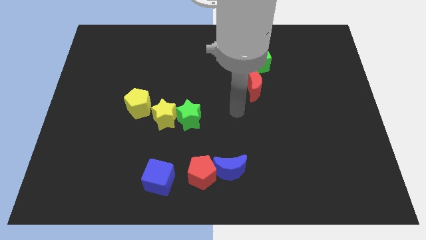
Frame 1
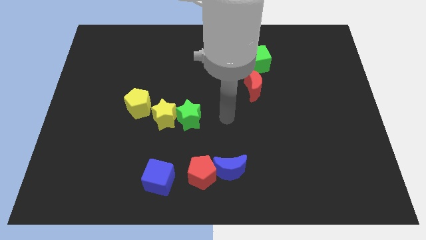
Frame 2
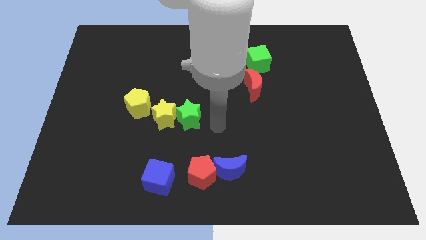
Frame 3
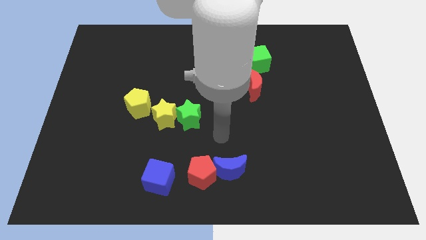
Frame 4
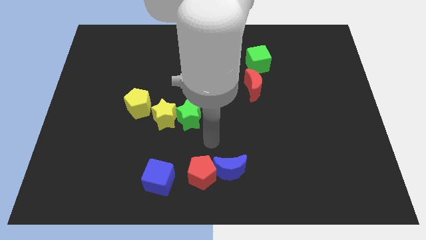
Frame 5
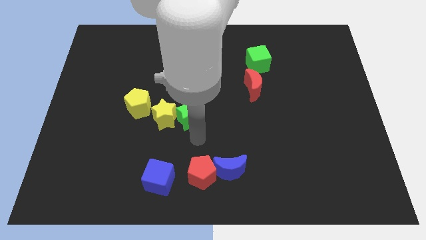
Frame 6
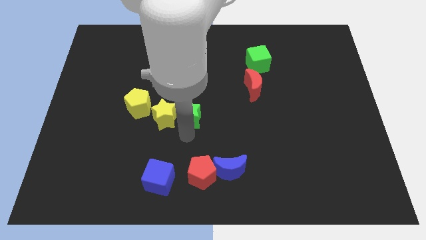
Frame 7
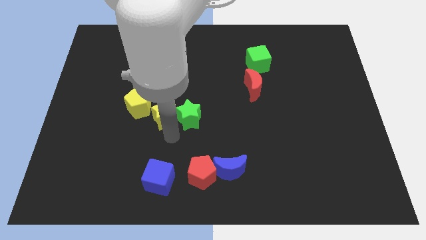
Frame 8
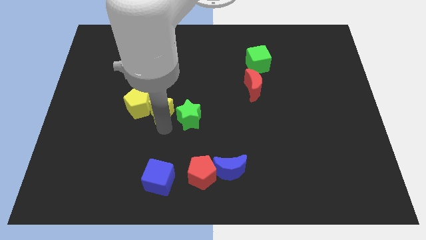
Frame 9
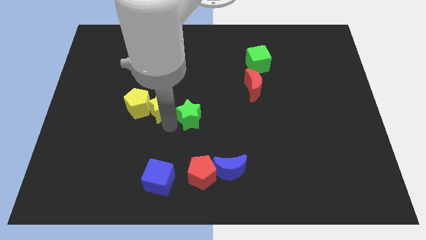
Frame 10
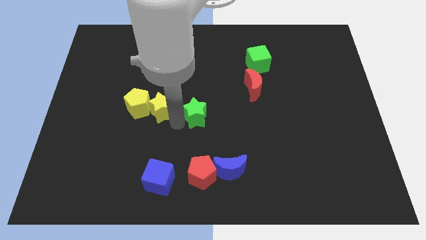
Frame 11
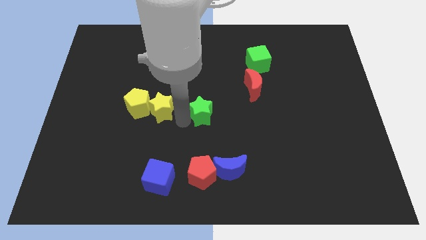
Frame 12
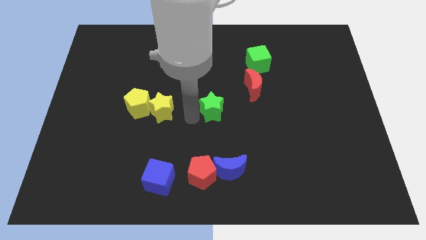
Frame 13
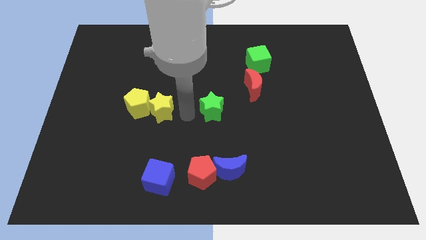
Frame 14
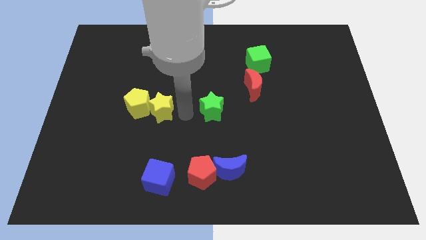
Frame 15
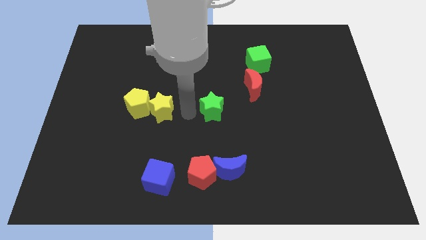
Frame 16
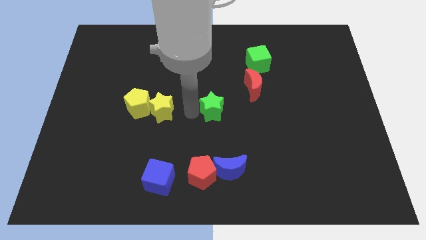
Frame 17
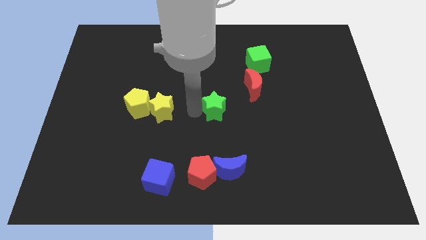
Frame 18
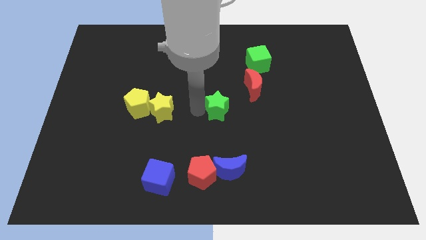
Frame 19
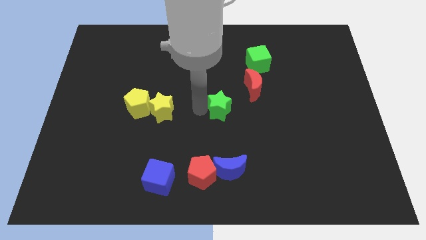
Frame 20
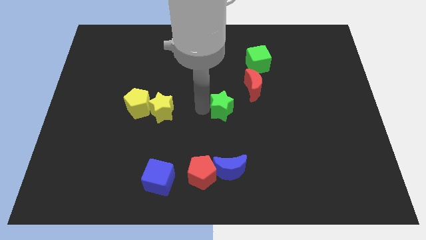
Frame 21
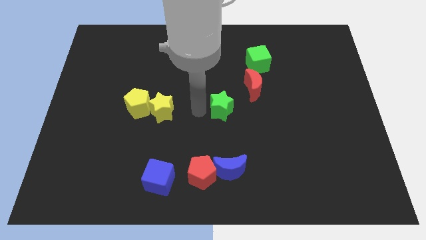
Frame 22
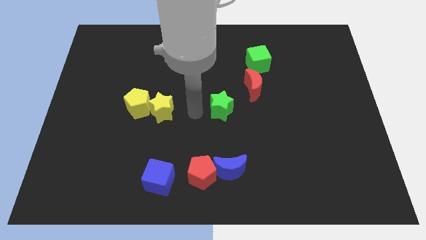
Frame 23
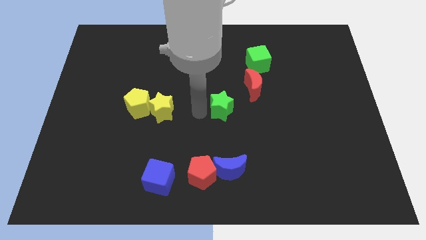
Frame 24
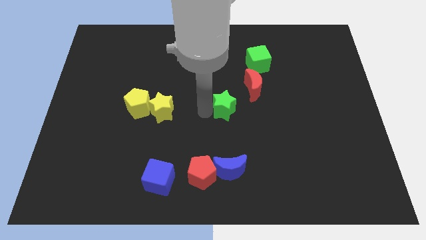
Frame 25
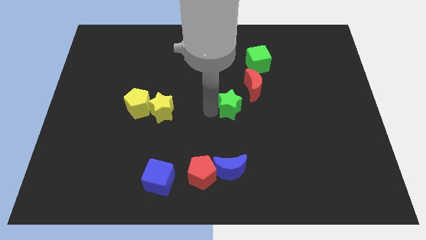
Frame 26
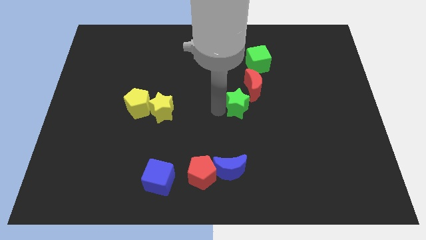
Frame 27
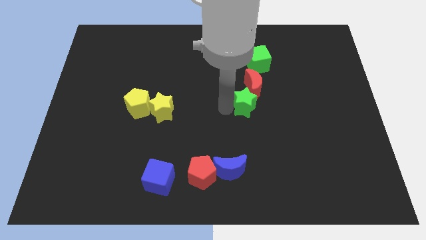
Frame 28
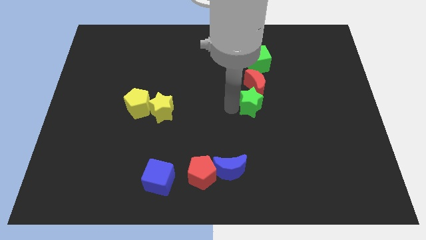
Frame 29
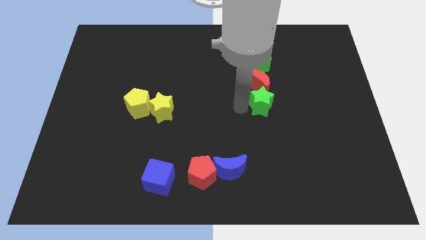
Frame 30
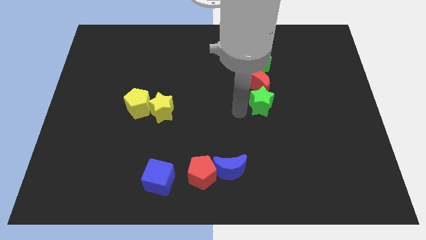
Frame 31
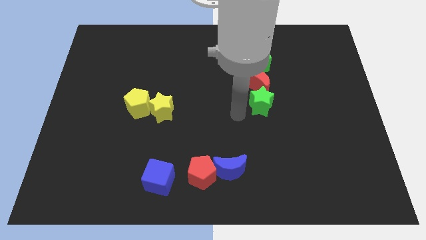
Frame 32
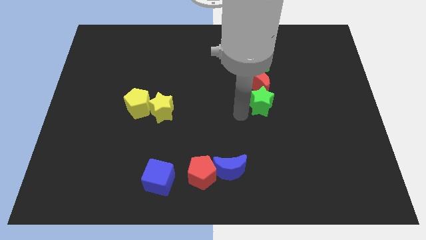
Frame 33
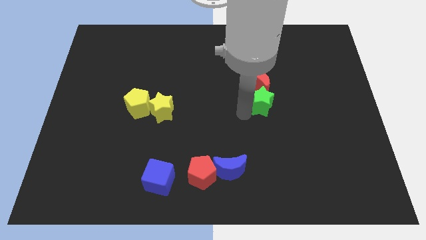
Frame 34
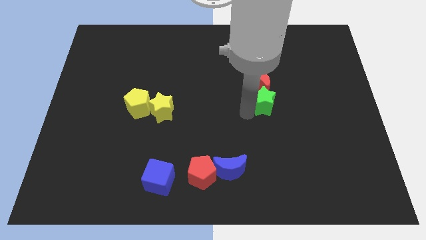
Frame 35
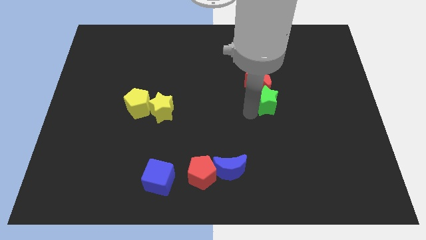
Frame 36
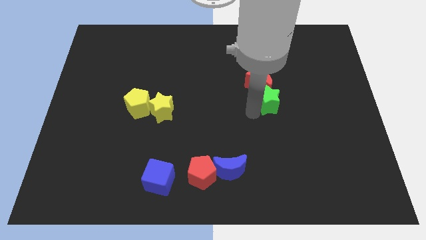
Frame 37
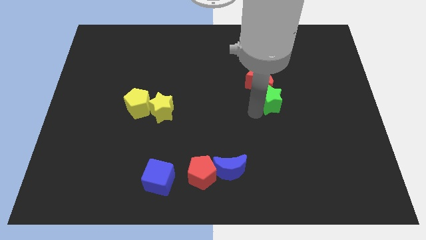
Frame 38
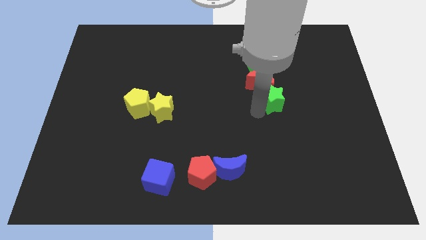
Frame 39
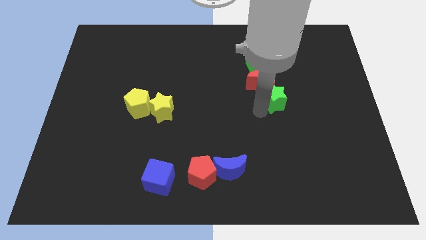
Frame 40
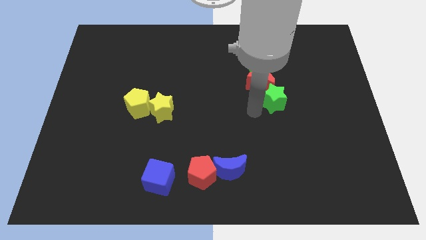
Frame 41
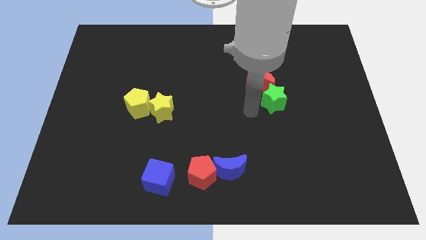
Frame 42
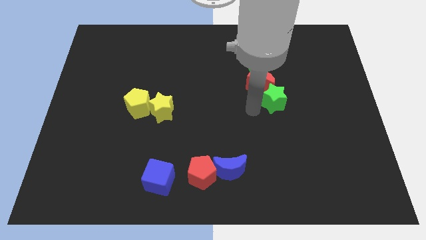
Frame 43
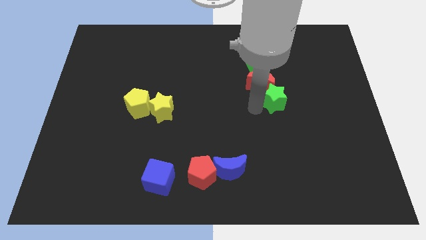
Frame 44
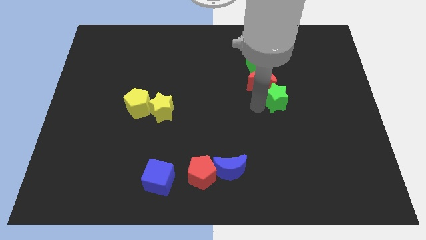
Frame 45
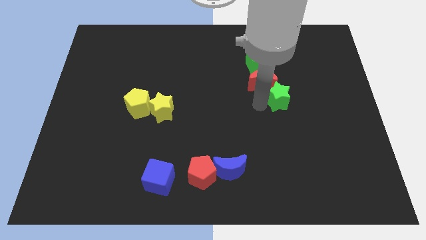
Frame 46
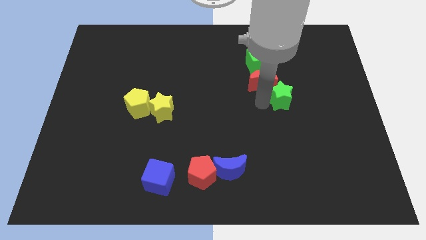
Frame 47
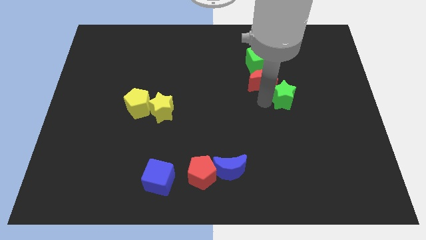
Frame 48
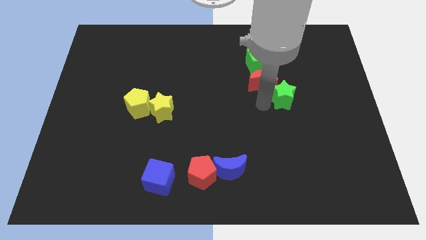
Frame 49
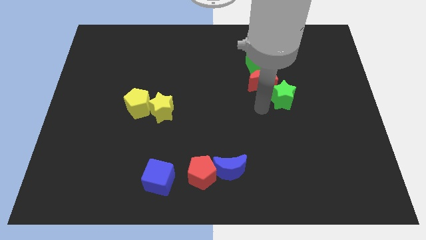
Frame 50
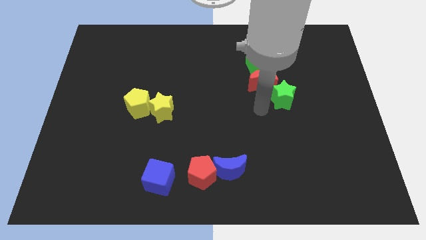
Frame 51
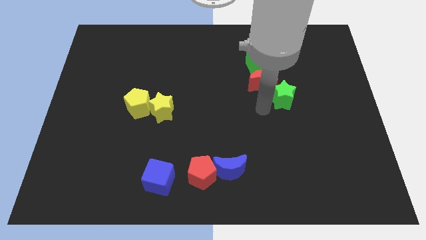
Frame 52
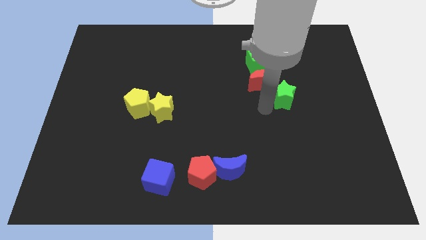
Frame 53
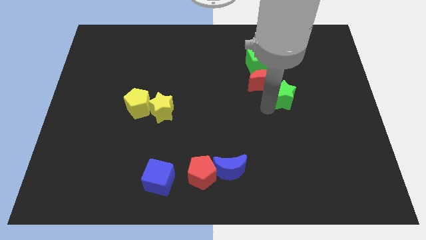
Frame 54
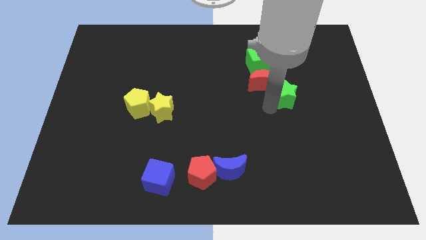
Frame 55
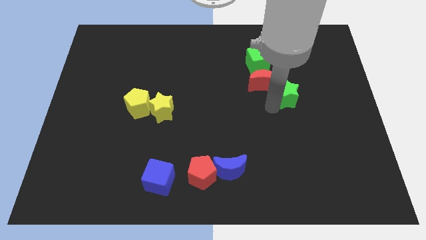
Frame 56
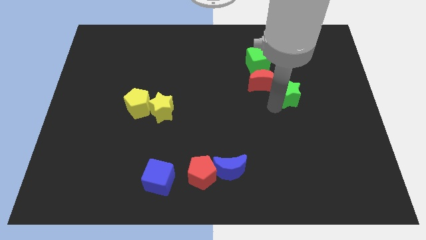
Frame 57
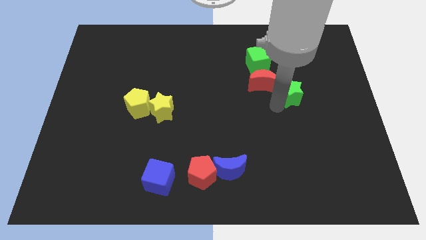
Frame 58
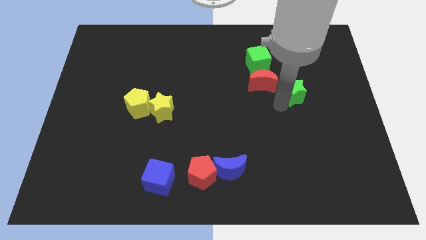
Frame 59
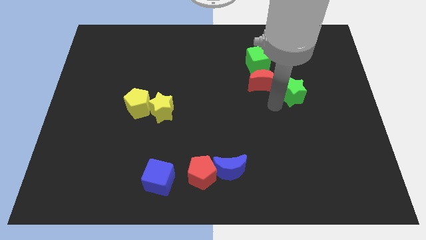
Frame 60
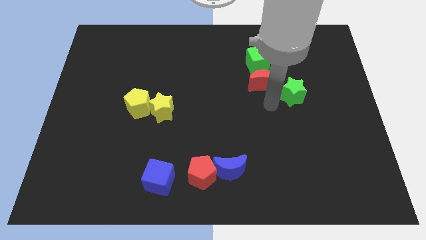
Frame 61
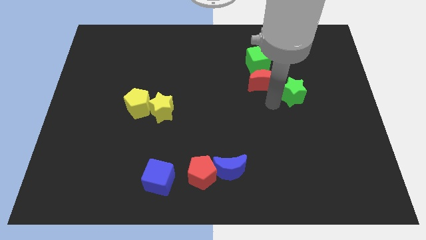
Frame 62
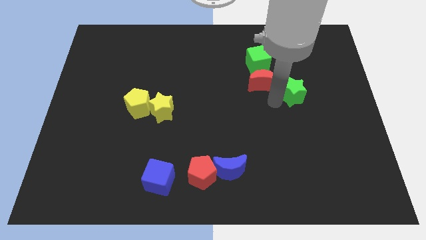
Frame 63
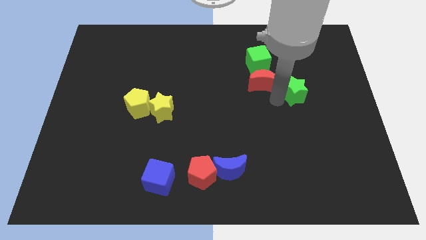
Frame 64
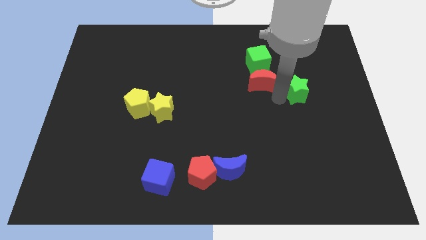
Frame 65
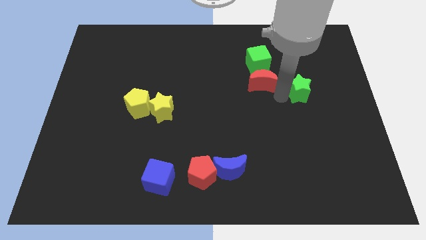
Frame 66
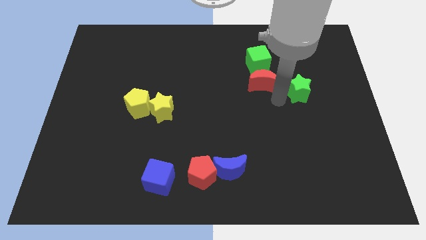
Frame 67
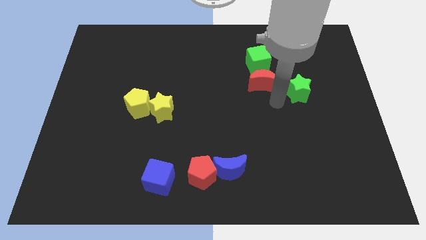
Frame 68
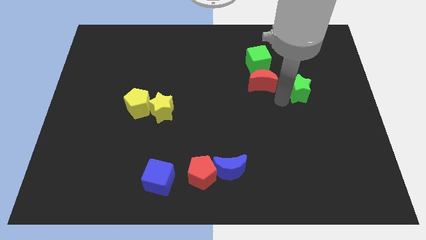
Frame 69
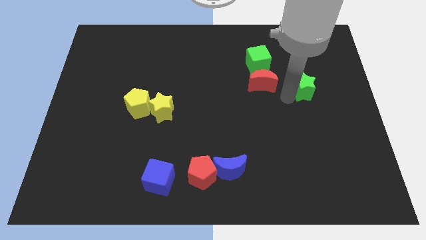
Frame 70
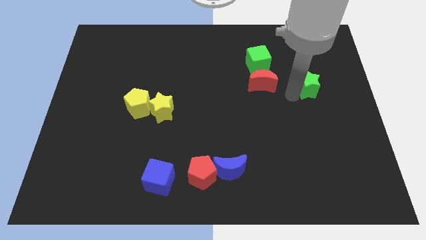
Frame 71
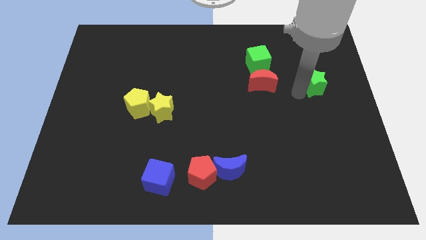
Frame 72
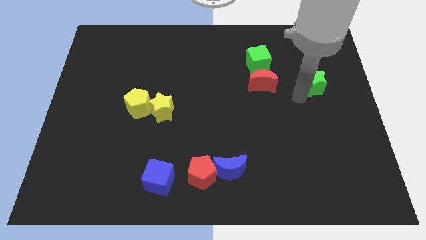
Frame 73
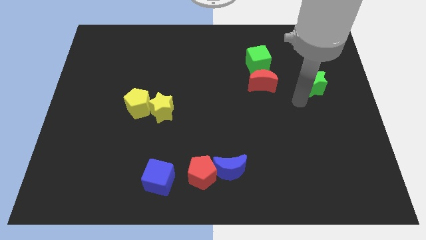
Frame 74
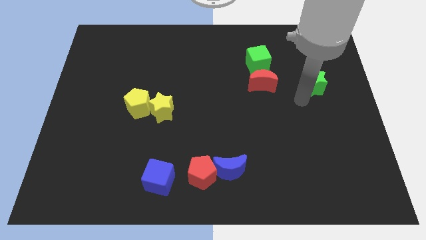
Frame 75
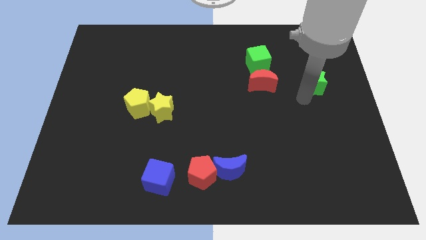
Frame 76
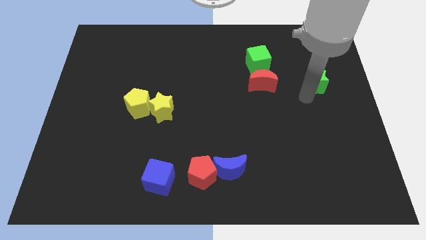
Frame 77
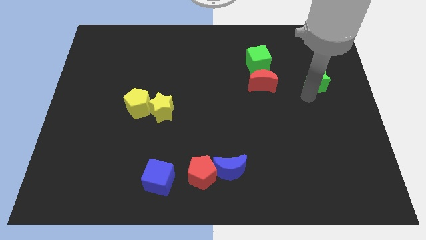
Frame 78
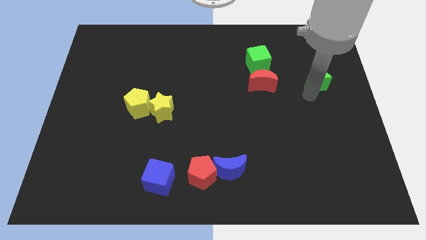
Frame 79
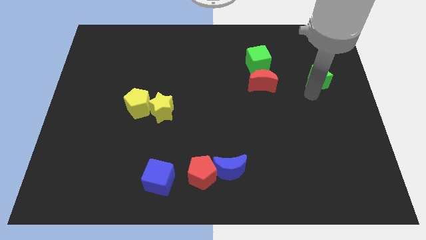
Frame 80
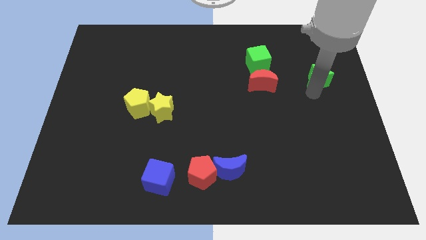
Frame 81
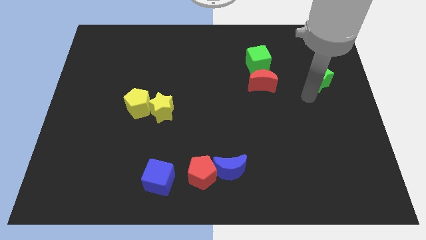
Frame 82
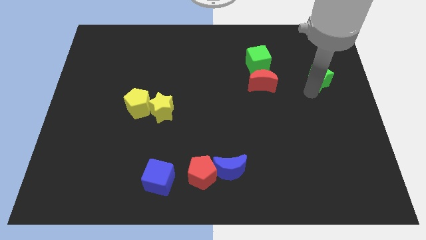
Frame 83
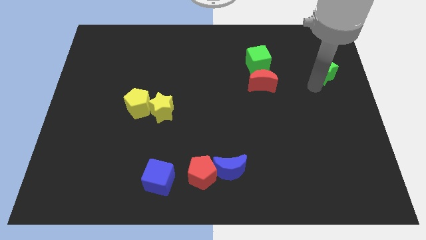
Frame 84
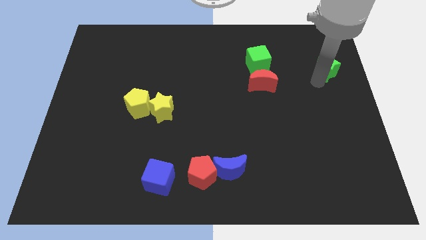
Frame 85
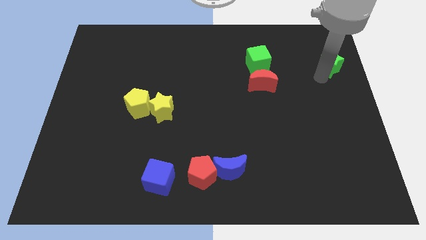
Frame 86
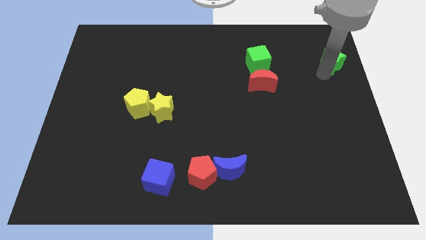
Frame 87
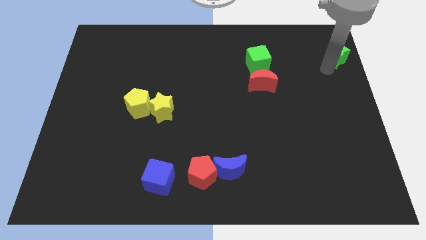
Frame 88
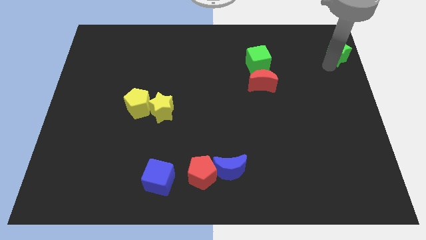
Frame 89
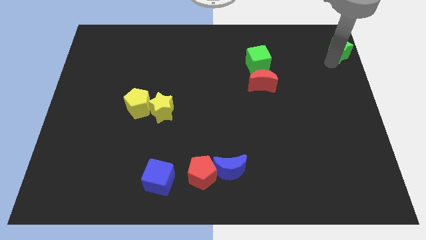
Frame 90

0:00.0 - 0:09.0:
move the green star to the upper right corner
